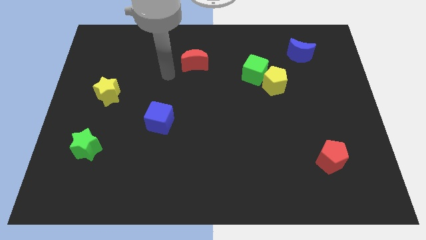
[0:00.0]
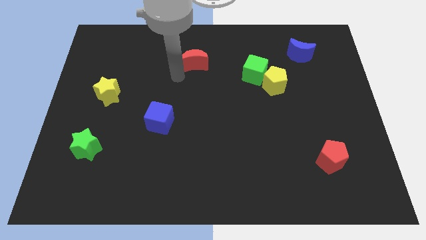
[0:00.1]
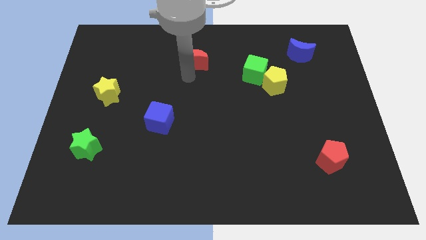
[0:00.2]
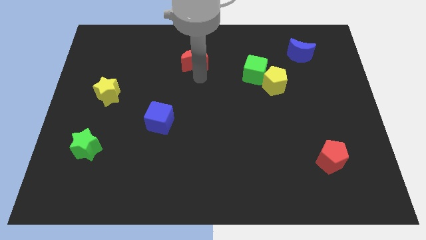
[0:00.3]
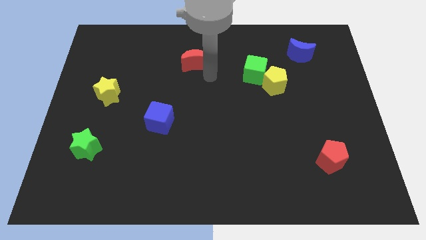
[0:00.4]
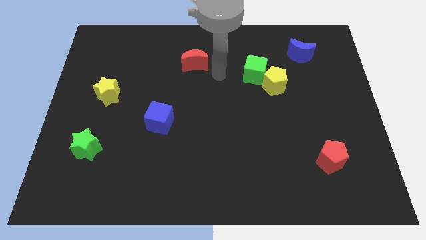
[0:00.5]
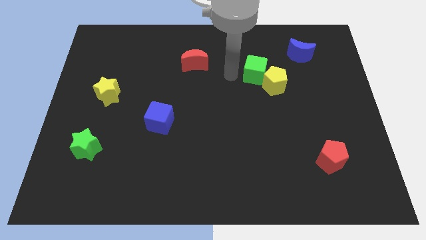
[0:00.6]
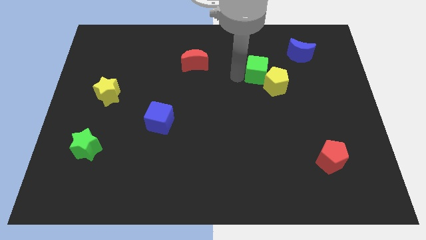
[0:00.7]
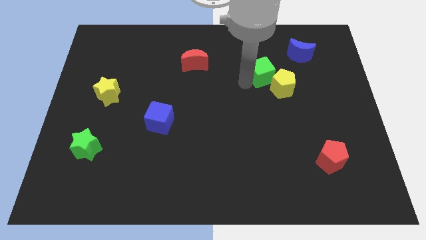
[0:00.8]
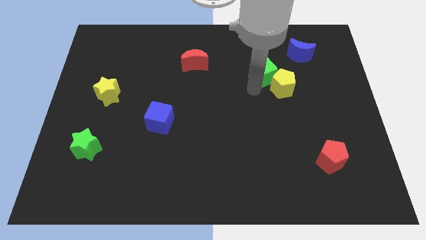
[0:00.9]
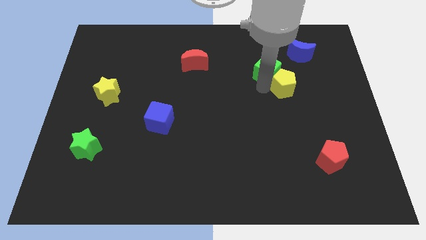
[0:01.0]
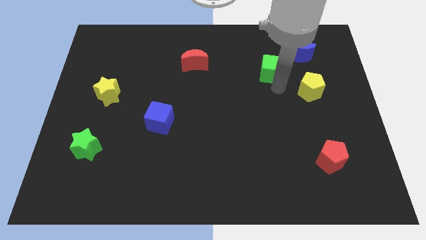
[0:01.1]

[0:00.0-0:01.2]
move the green cube away from the yellow pentagon

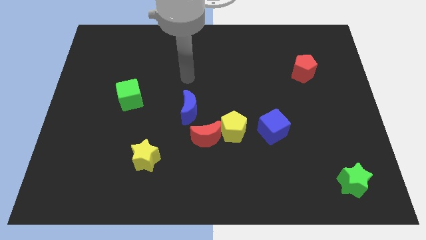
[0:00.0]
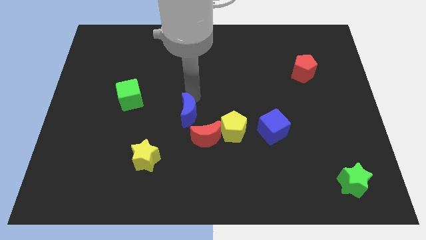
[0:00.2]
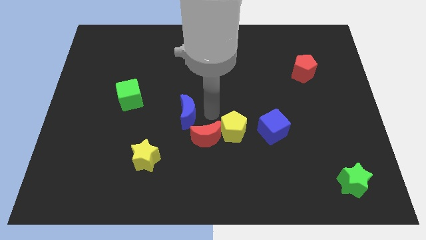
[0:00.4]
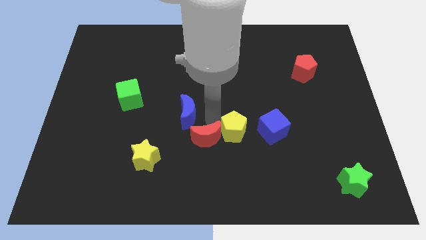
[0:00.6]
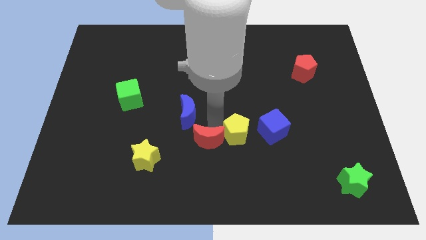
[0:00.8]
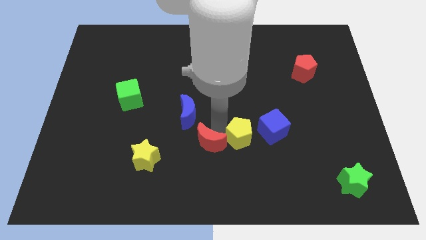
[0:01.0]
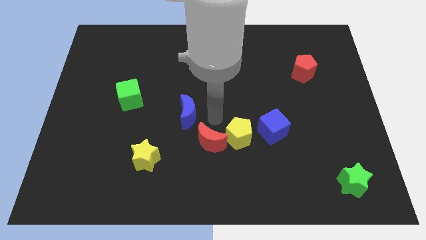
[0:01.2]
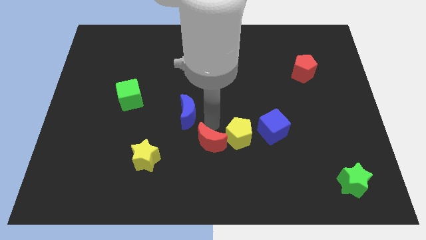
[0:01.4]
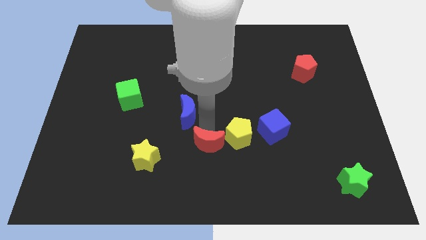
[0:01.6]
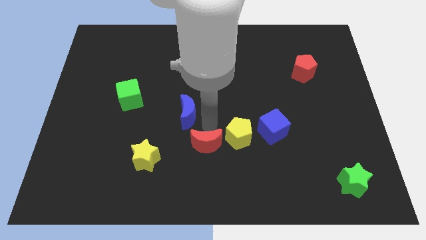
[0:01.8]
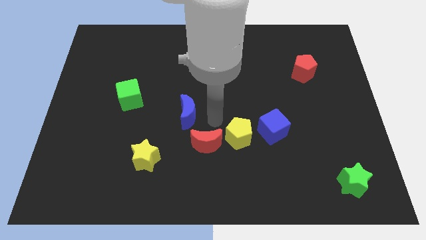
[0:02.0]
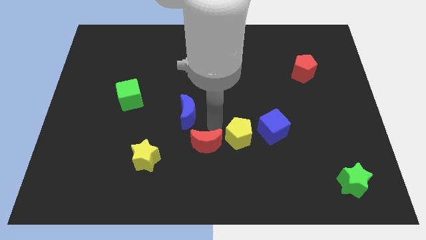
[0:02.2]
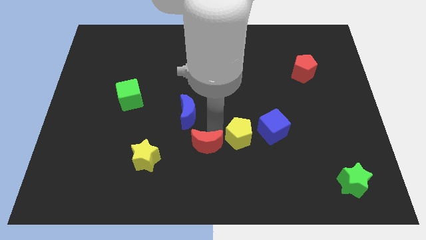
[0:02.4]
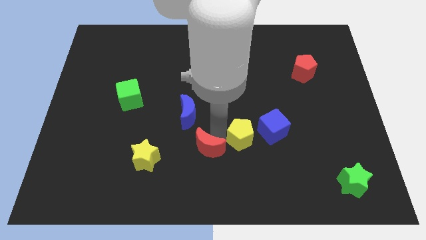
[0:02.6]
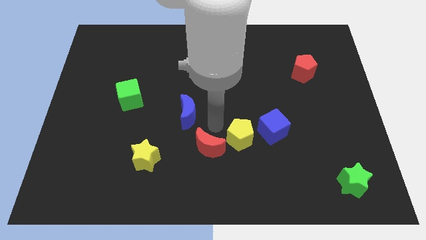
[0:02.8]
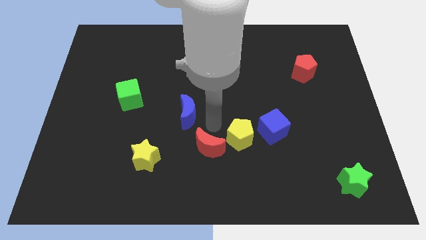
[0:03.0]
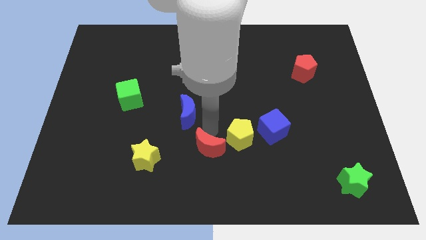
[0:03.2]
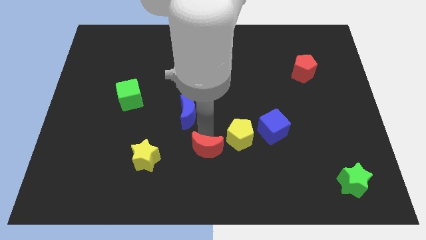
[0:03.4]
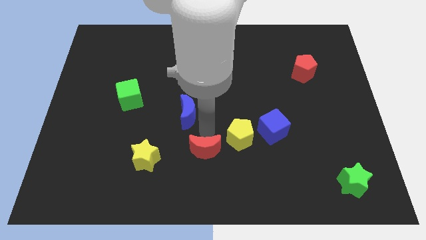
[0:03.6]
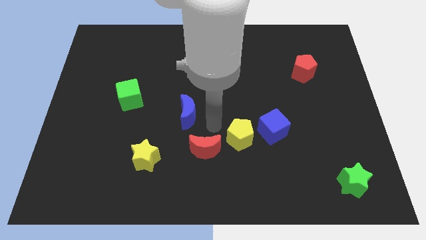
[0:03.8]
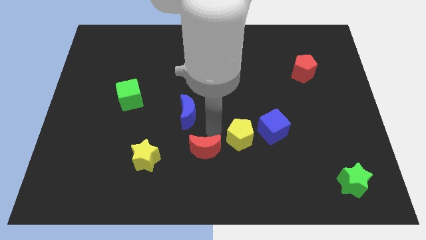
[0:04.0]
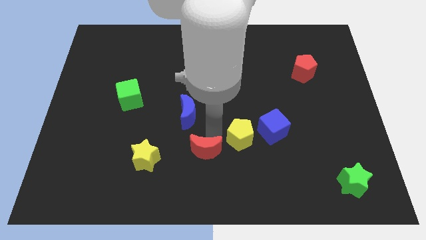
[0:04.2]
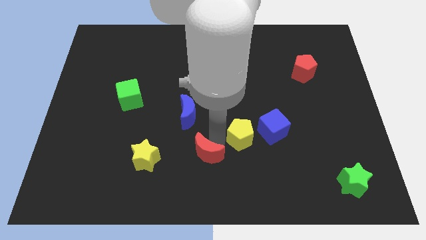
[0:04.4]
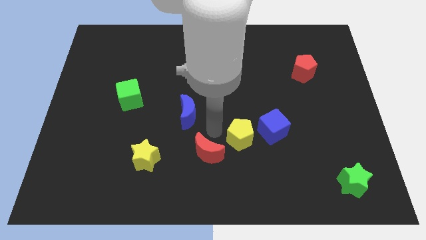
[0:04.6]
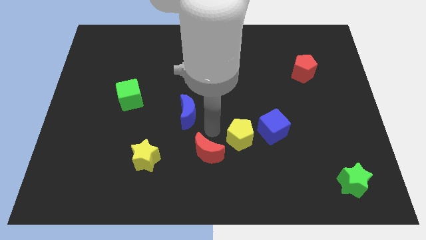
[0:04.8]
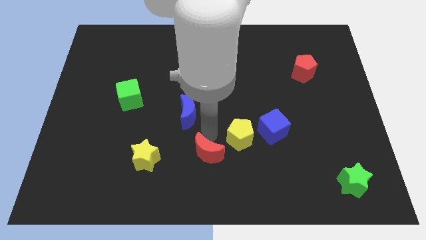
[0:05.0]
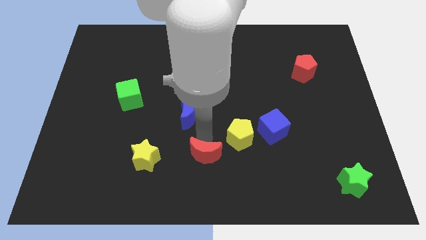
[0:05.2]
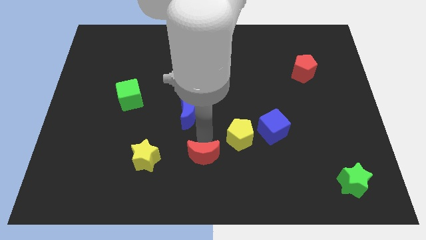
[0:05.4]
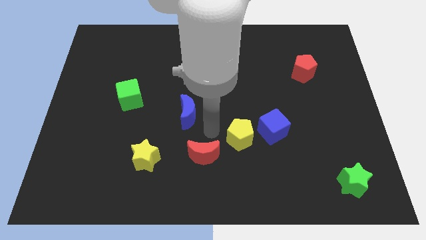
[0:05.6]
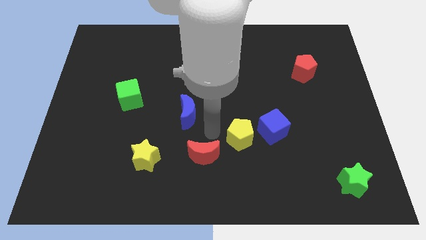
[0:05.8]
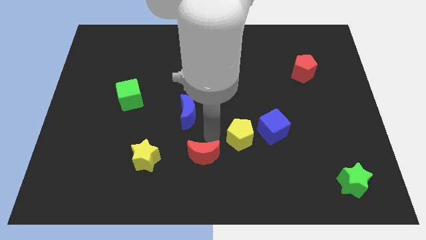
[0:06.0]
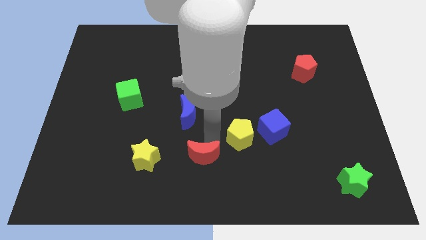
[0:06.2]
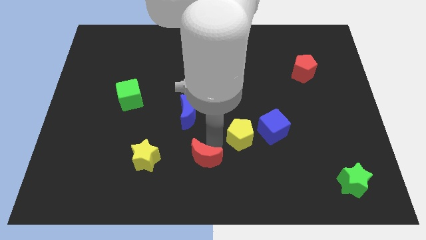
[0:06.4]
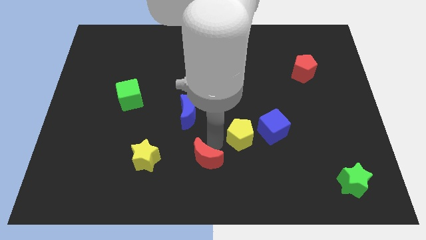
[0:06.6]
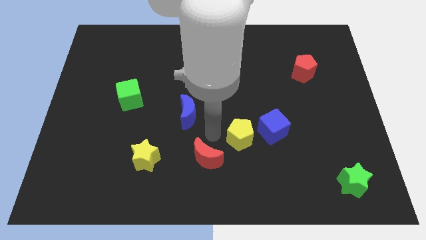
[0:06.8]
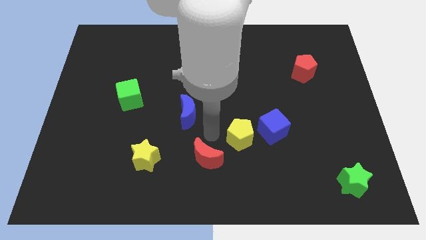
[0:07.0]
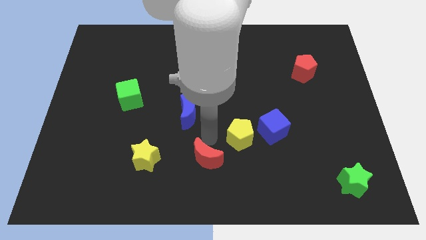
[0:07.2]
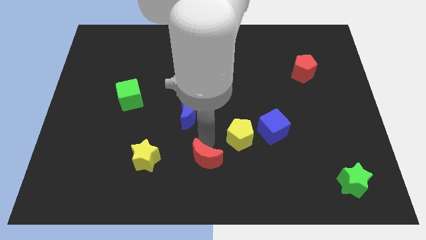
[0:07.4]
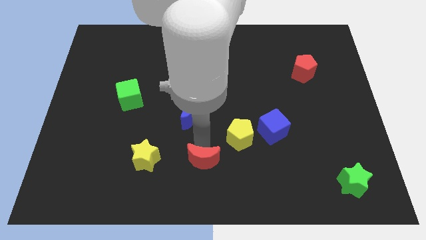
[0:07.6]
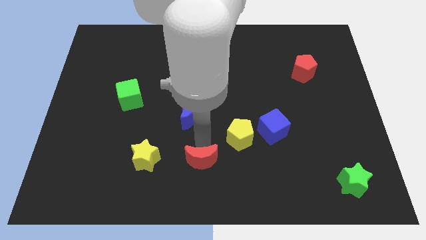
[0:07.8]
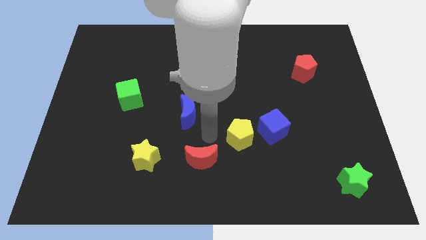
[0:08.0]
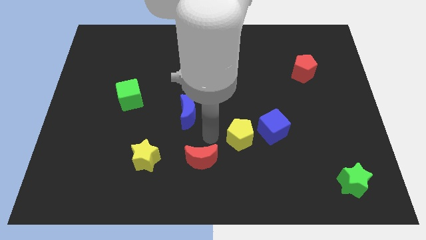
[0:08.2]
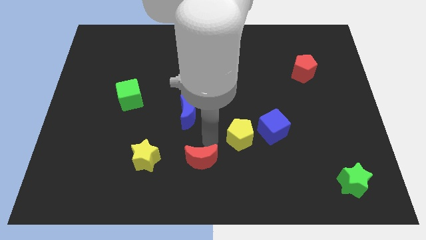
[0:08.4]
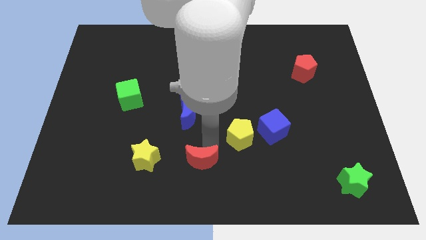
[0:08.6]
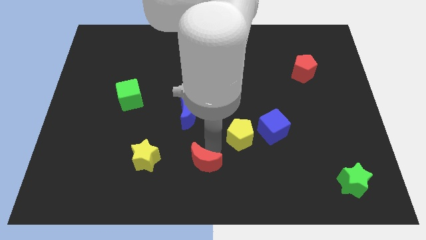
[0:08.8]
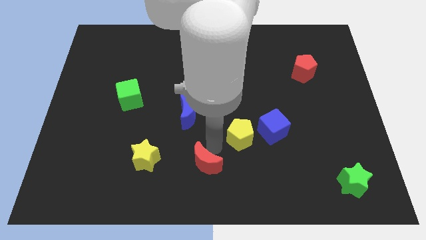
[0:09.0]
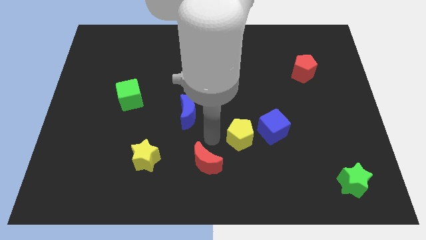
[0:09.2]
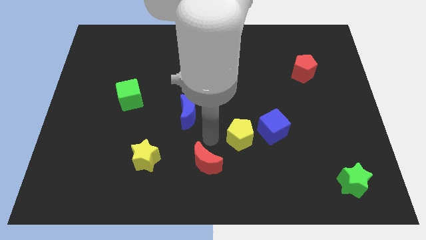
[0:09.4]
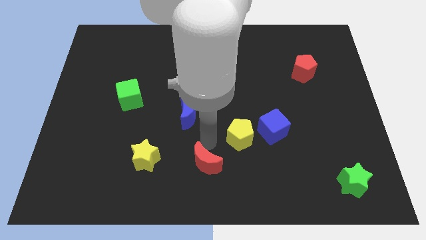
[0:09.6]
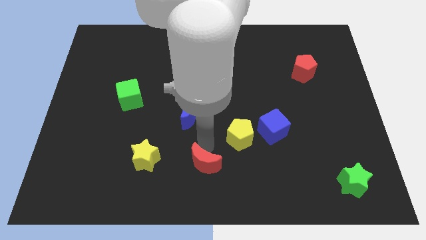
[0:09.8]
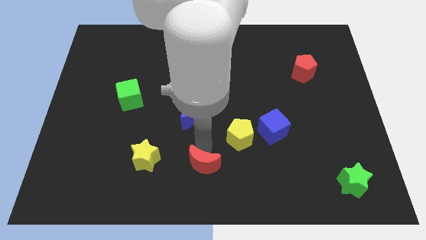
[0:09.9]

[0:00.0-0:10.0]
separate the red moon from the yellow pentagon and blue moon

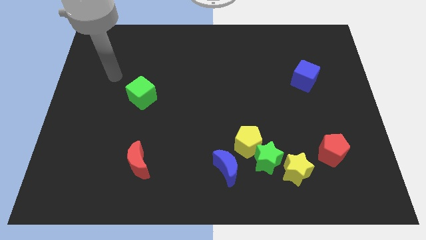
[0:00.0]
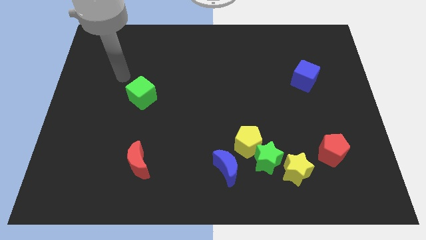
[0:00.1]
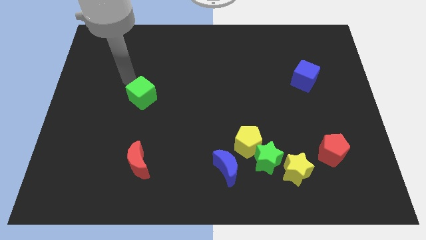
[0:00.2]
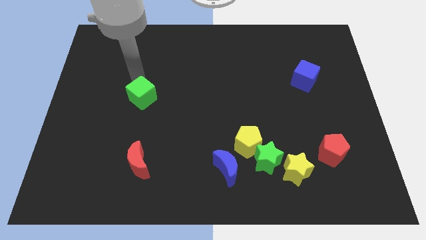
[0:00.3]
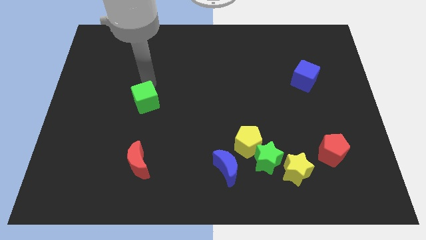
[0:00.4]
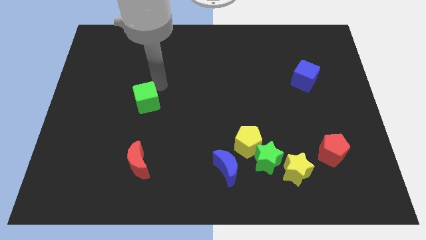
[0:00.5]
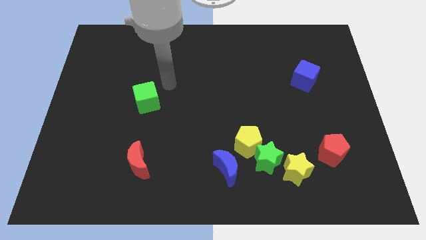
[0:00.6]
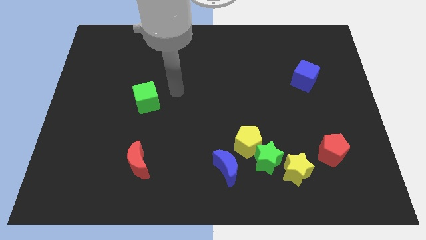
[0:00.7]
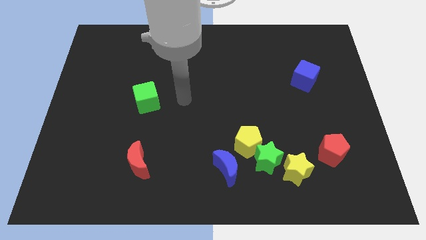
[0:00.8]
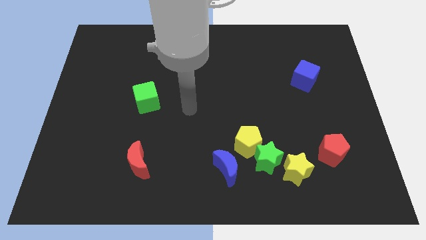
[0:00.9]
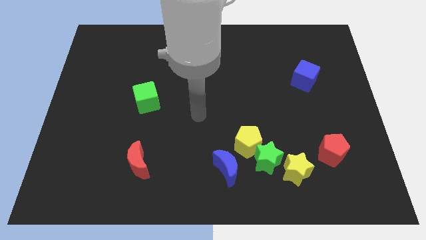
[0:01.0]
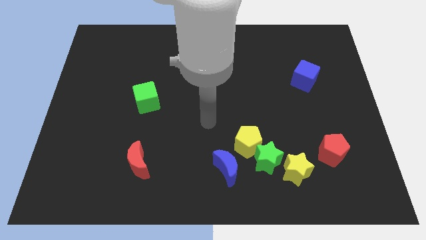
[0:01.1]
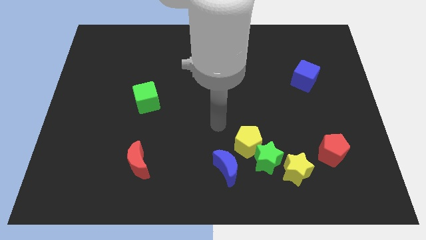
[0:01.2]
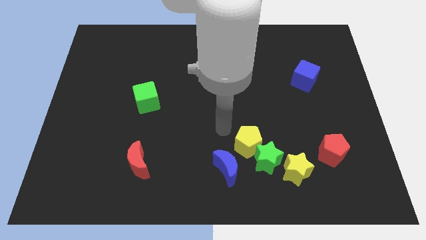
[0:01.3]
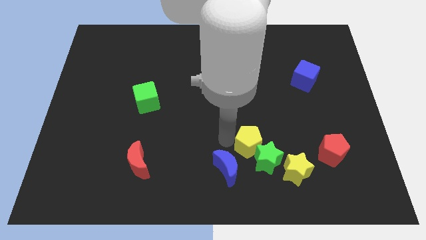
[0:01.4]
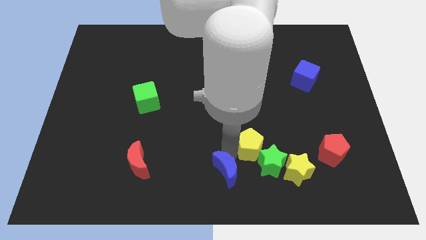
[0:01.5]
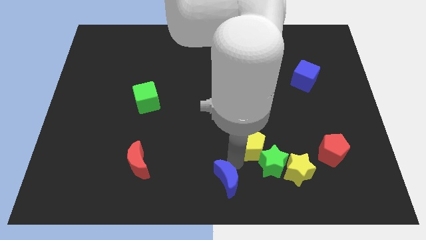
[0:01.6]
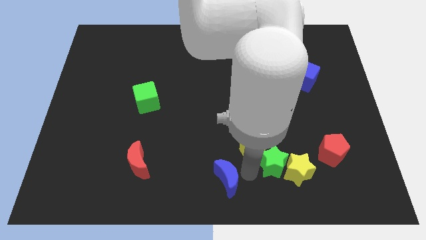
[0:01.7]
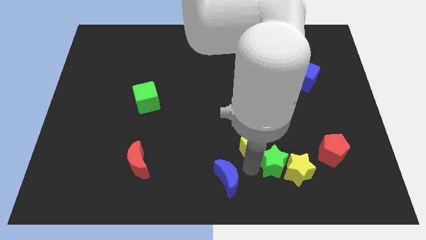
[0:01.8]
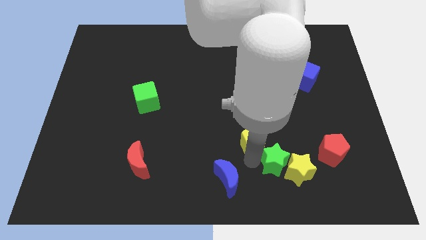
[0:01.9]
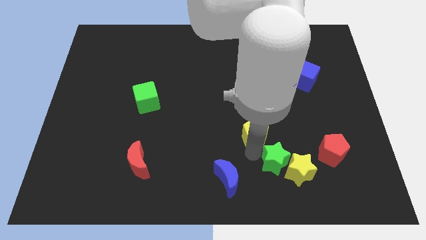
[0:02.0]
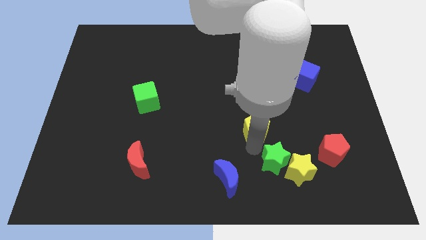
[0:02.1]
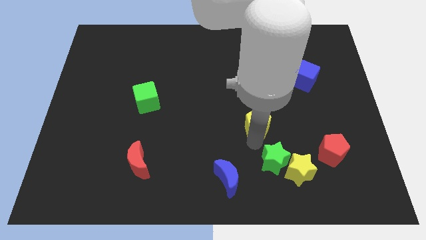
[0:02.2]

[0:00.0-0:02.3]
pull the yellow pentagon apart from the green star and blue moon

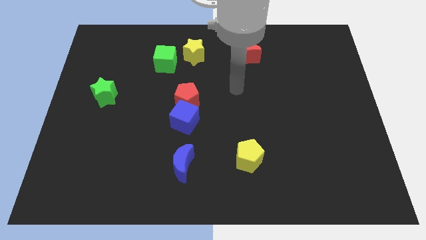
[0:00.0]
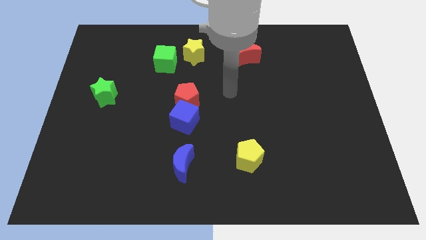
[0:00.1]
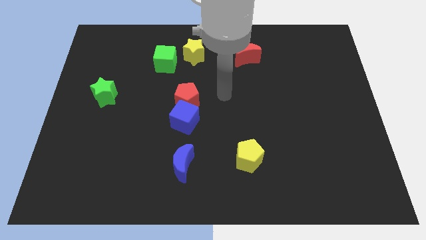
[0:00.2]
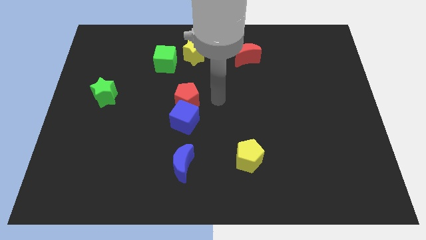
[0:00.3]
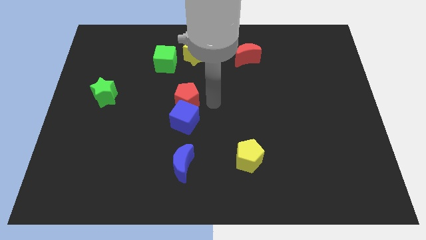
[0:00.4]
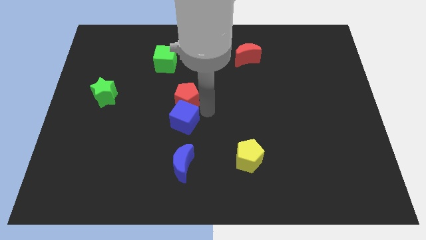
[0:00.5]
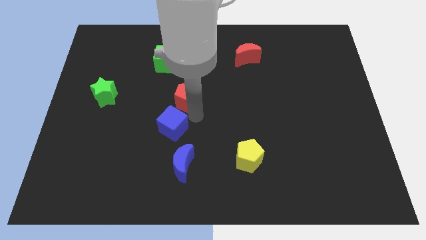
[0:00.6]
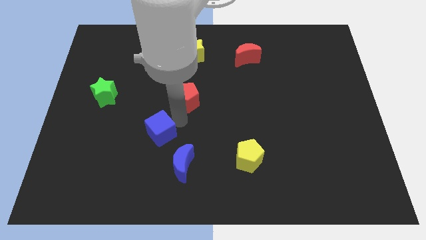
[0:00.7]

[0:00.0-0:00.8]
separate the red pentagon from the blue cube
